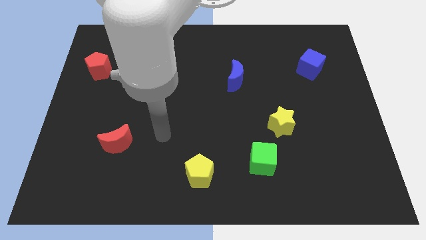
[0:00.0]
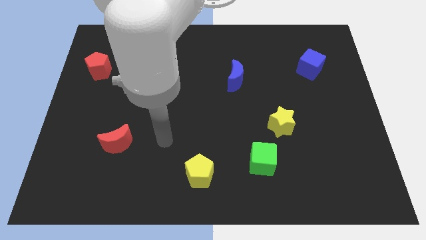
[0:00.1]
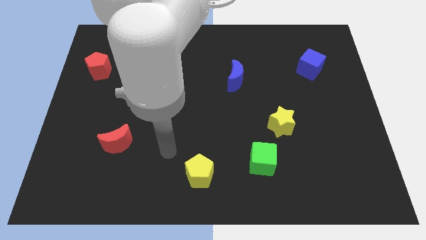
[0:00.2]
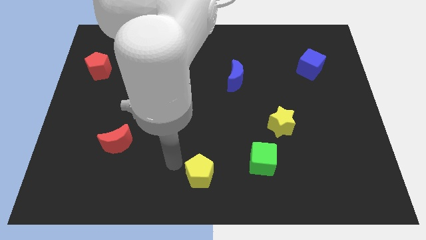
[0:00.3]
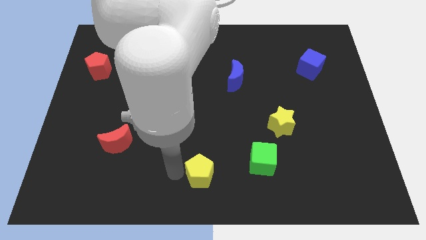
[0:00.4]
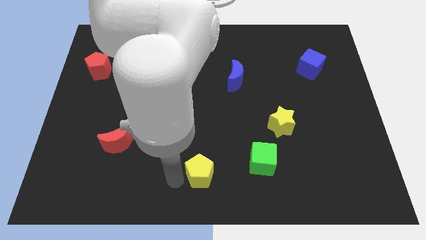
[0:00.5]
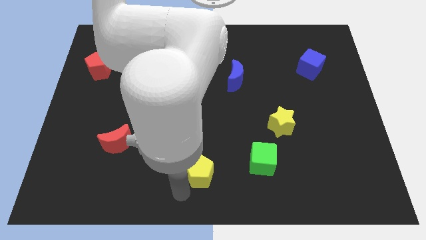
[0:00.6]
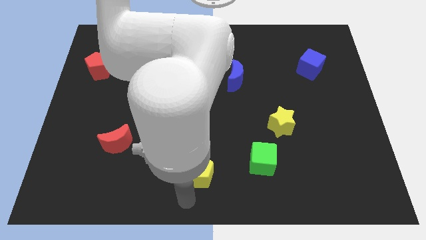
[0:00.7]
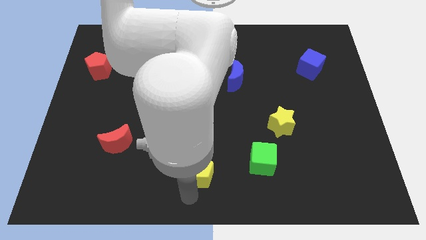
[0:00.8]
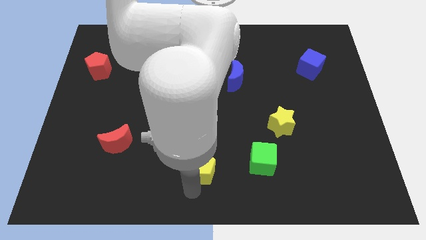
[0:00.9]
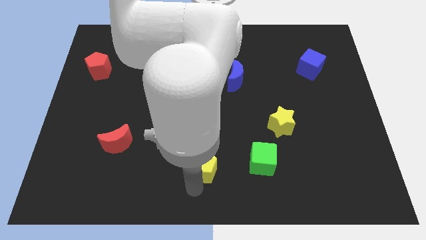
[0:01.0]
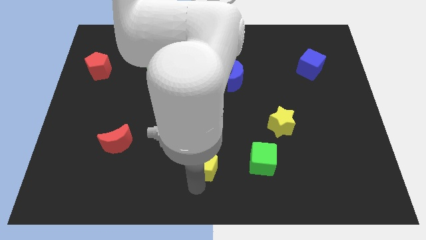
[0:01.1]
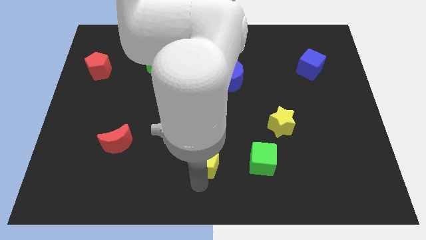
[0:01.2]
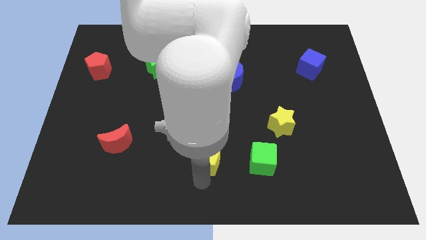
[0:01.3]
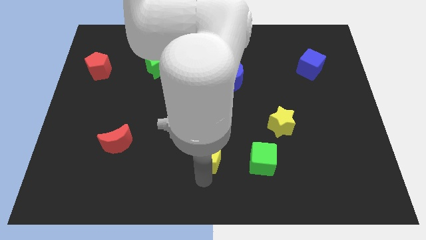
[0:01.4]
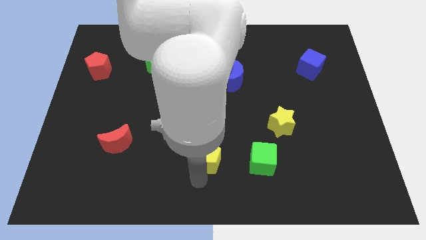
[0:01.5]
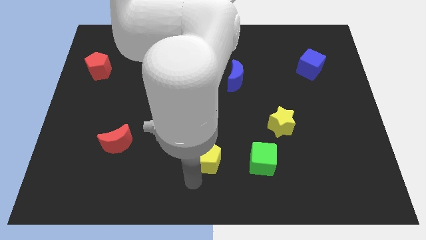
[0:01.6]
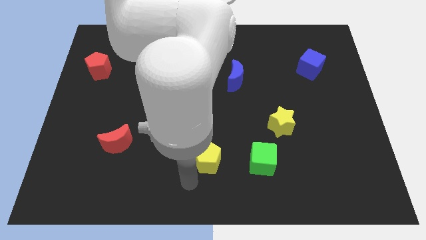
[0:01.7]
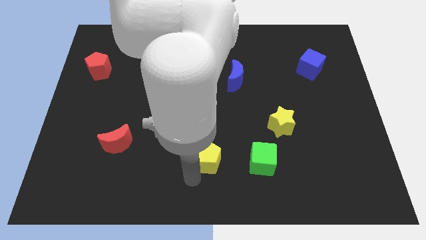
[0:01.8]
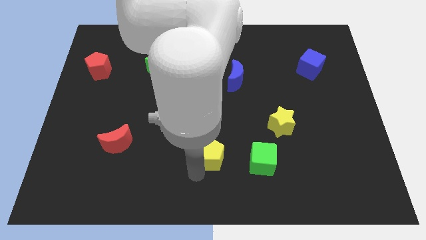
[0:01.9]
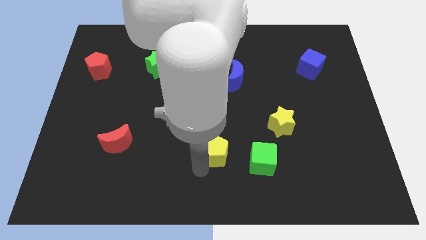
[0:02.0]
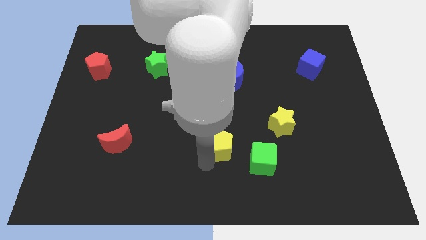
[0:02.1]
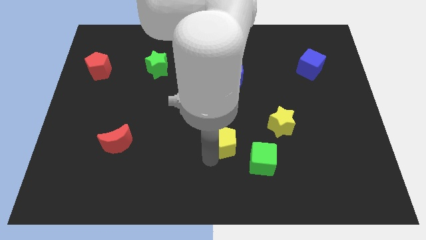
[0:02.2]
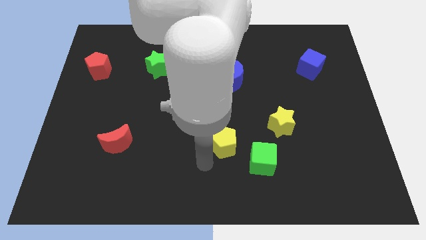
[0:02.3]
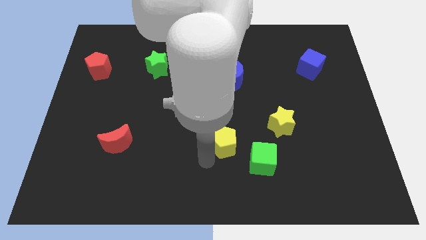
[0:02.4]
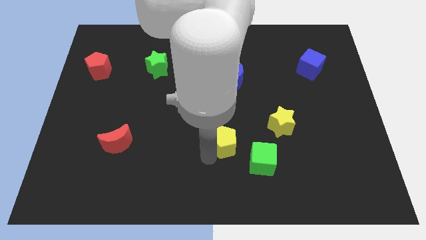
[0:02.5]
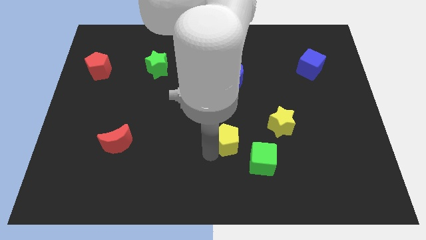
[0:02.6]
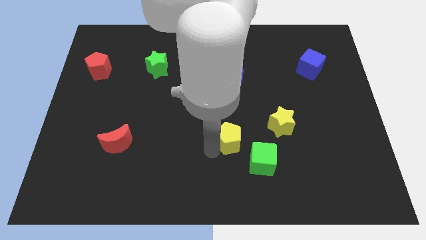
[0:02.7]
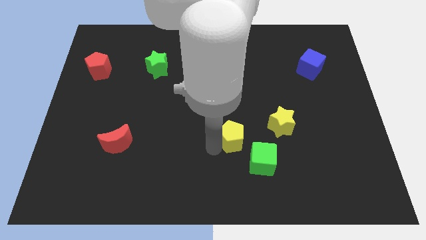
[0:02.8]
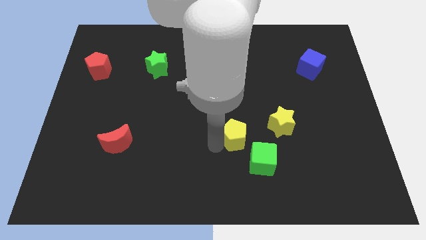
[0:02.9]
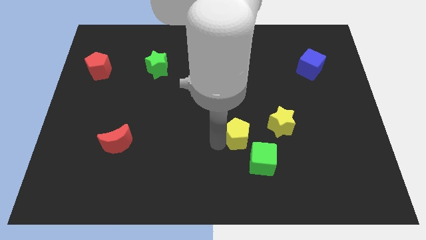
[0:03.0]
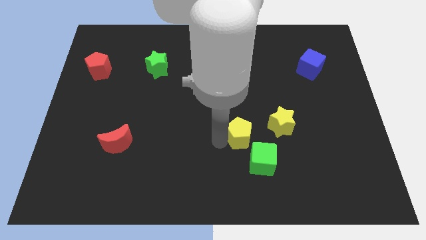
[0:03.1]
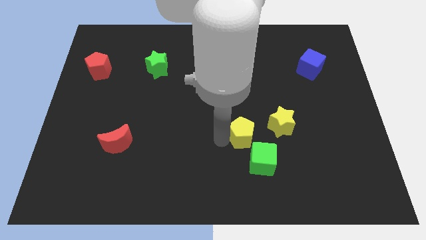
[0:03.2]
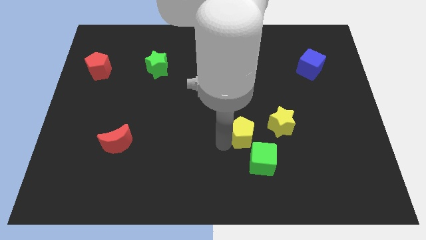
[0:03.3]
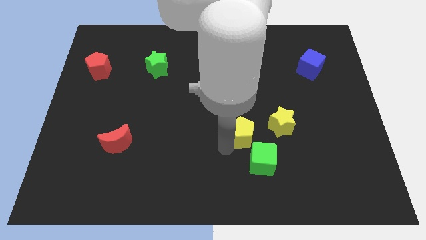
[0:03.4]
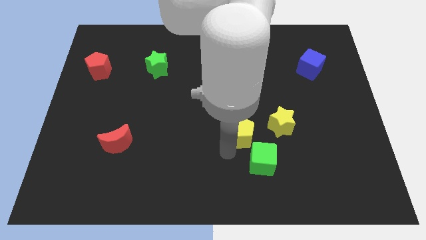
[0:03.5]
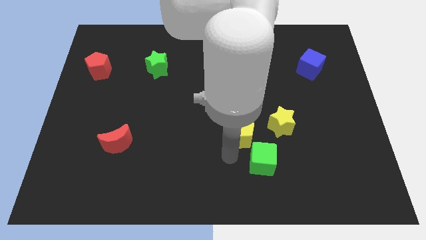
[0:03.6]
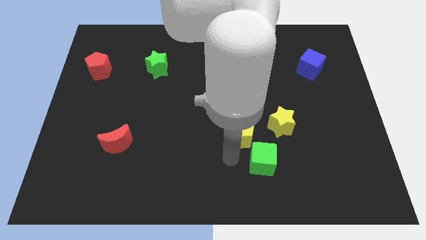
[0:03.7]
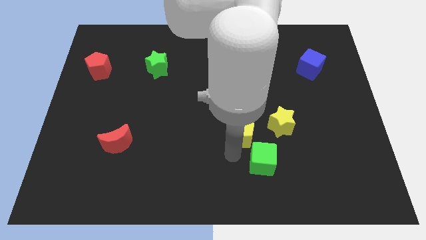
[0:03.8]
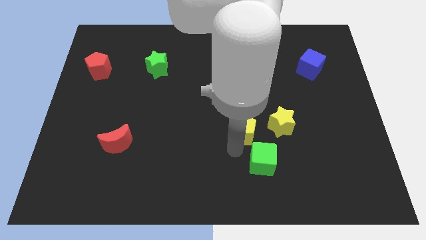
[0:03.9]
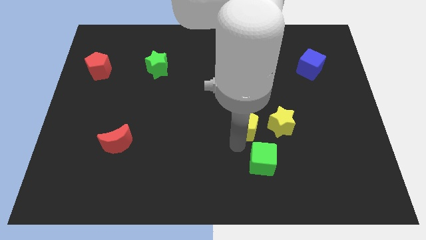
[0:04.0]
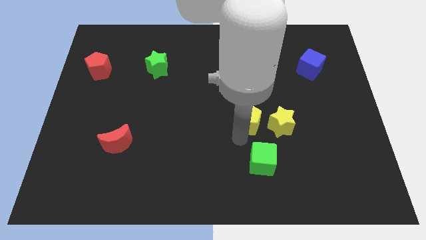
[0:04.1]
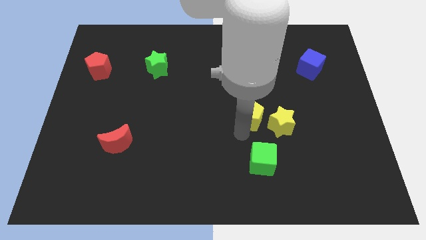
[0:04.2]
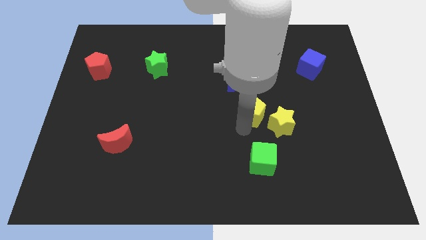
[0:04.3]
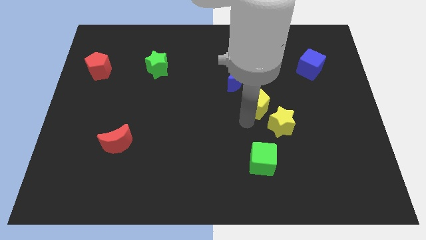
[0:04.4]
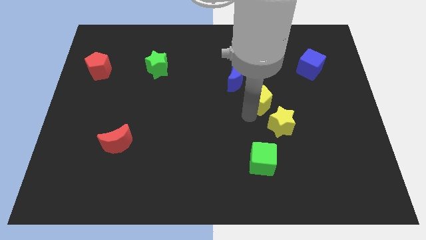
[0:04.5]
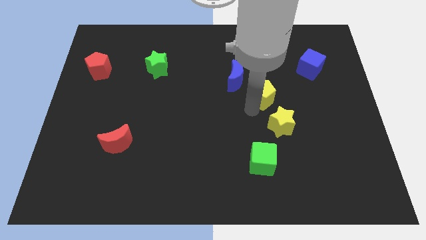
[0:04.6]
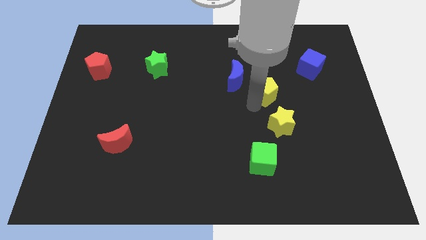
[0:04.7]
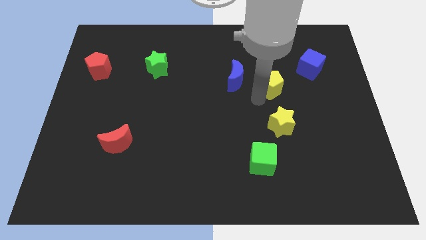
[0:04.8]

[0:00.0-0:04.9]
slide the yellow pentagon to the bottom left side of the blue cube

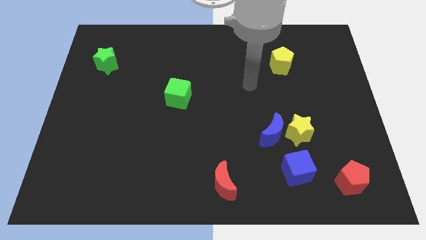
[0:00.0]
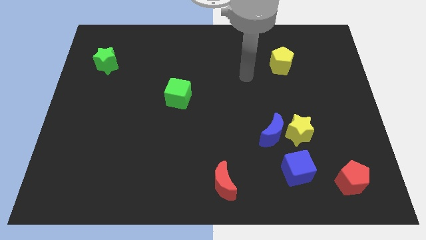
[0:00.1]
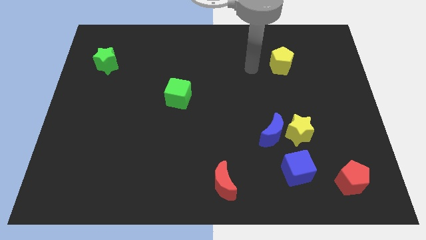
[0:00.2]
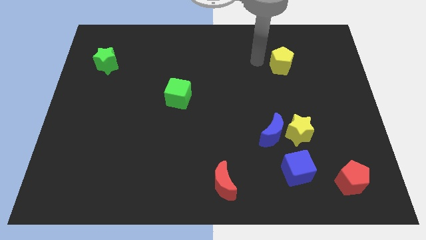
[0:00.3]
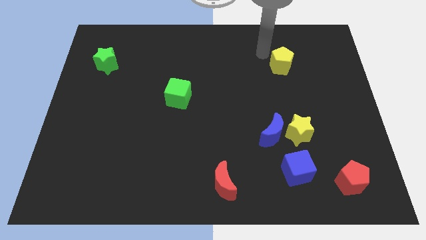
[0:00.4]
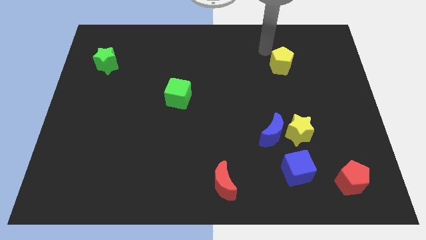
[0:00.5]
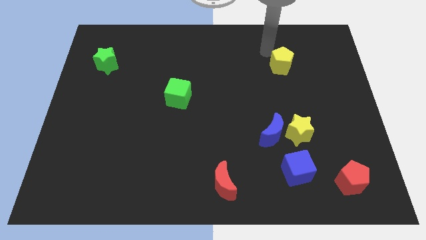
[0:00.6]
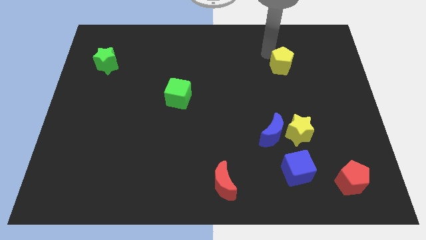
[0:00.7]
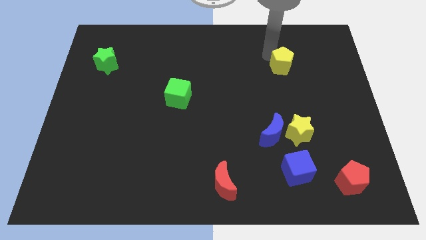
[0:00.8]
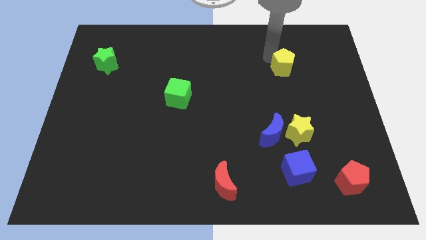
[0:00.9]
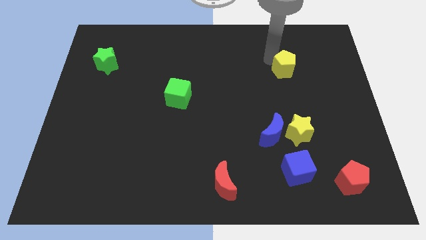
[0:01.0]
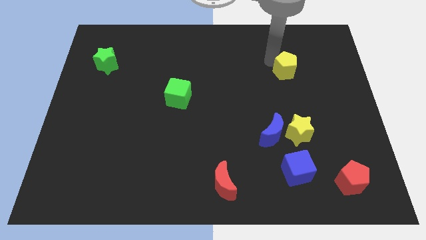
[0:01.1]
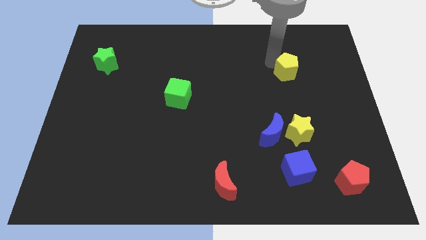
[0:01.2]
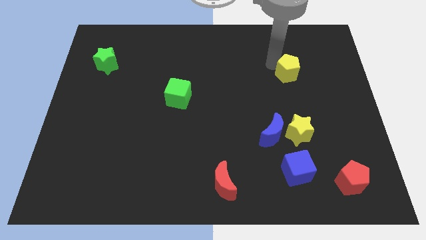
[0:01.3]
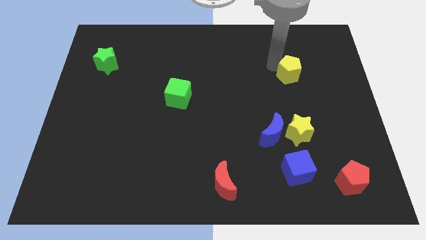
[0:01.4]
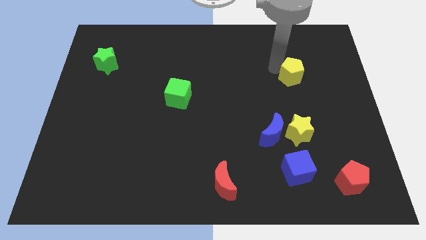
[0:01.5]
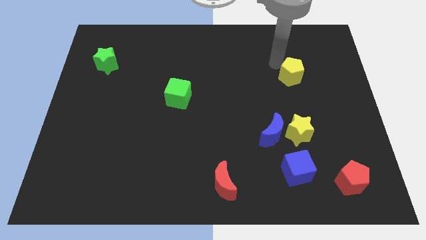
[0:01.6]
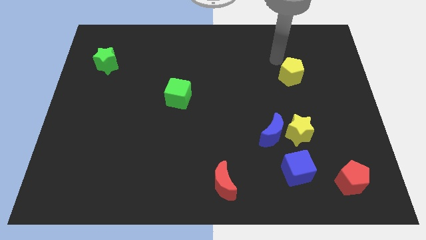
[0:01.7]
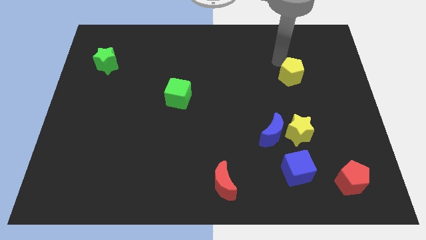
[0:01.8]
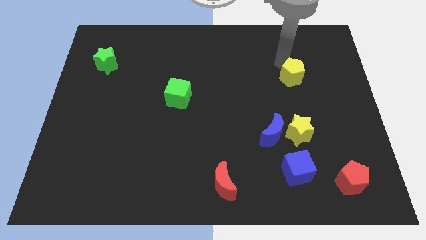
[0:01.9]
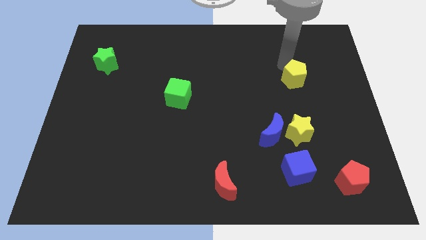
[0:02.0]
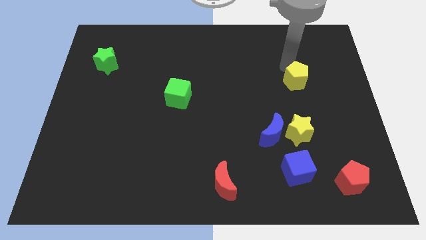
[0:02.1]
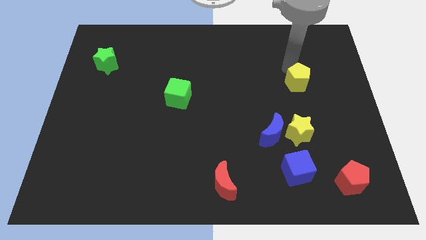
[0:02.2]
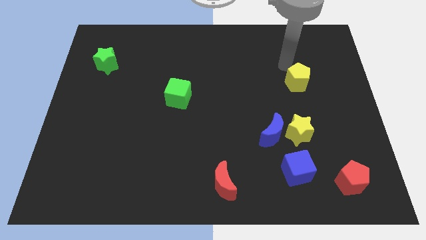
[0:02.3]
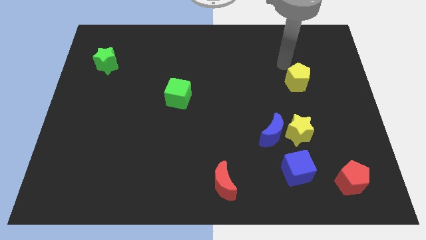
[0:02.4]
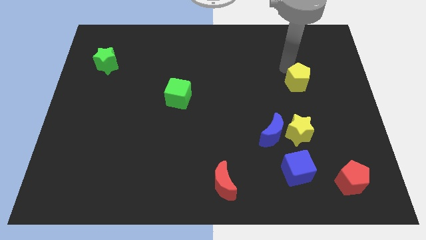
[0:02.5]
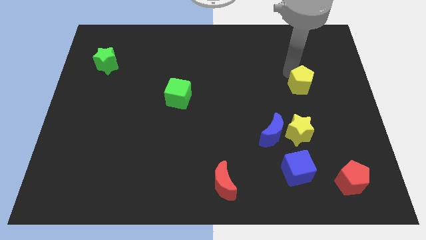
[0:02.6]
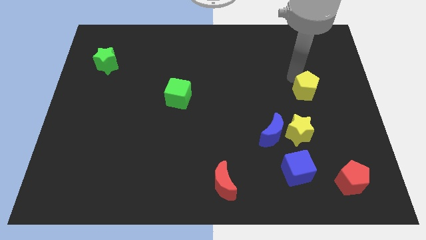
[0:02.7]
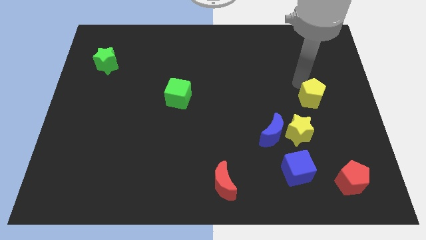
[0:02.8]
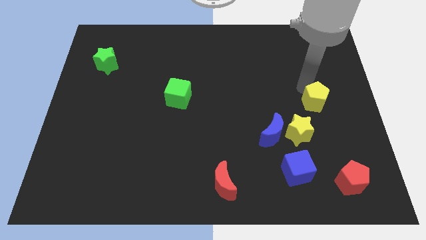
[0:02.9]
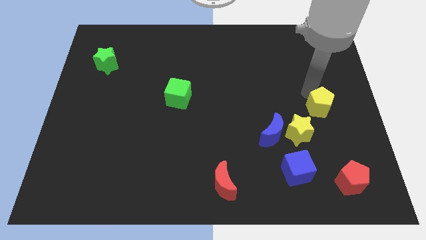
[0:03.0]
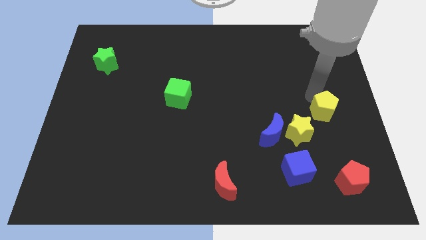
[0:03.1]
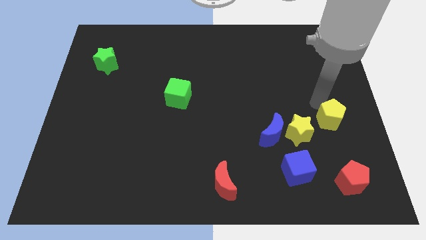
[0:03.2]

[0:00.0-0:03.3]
move the yellow pentagon above the red pentagon
